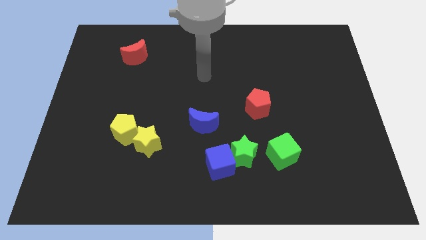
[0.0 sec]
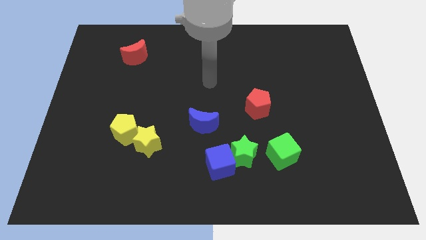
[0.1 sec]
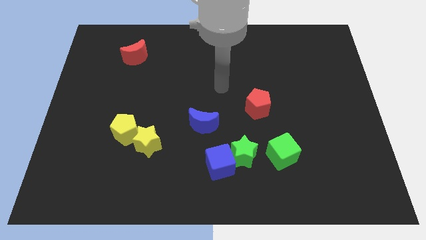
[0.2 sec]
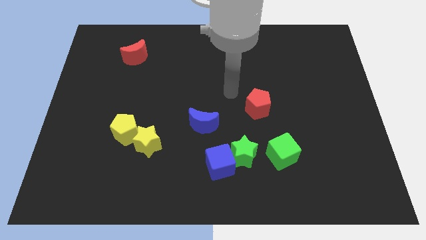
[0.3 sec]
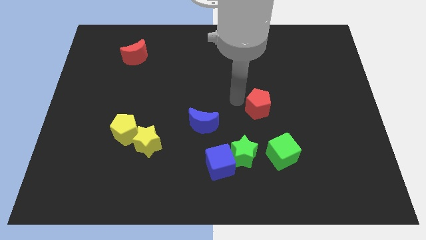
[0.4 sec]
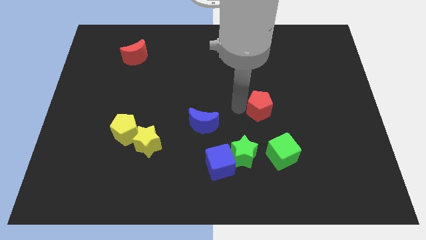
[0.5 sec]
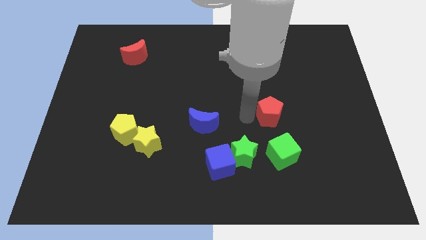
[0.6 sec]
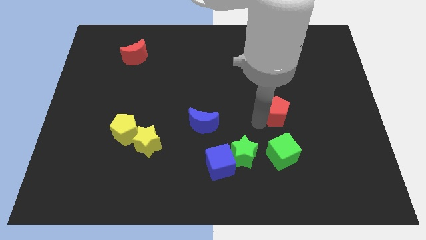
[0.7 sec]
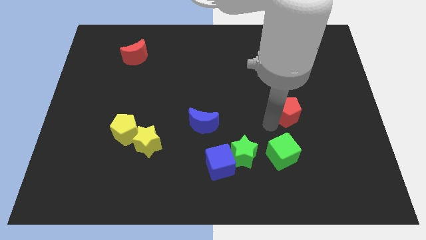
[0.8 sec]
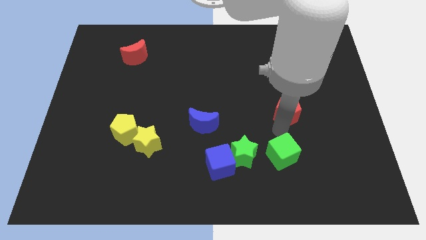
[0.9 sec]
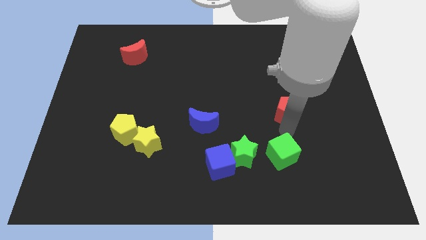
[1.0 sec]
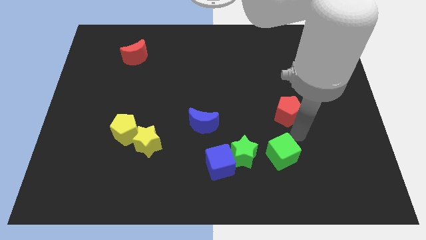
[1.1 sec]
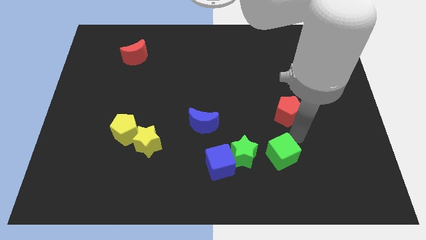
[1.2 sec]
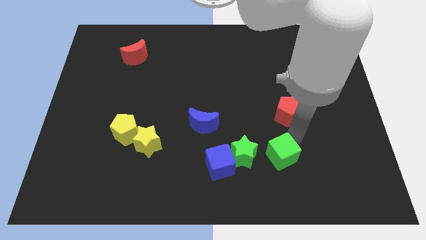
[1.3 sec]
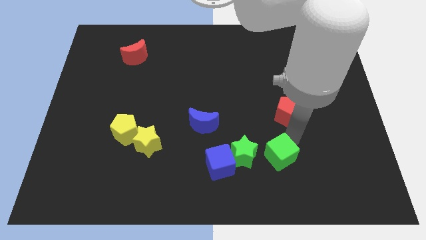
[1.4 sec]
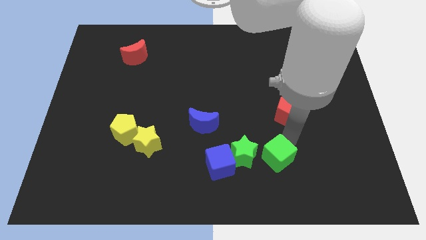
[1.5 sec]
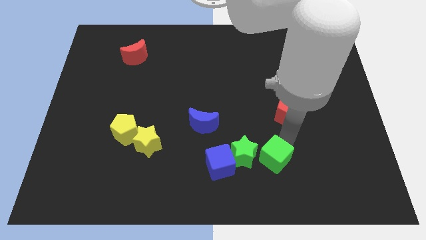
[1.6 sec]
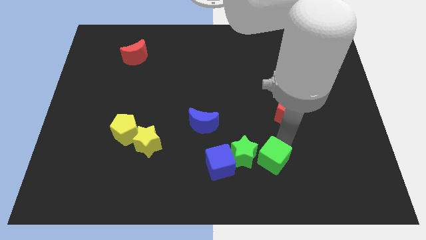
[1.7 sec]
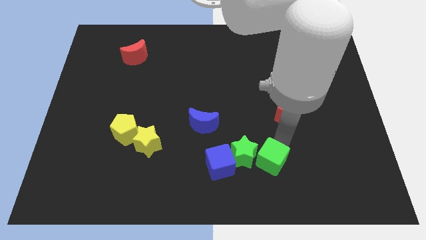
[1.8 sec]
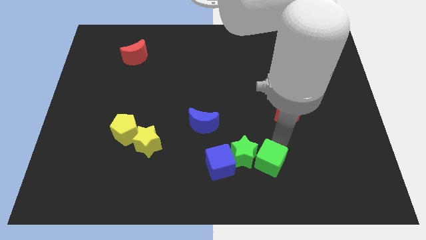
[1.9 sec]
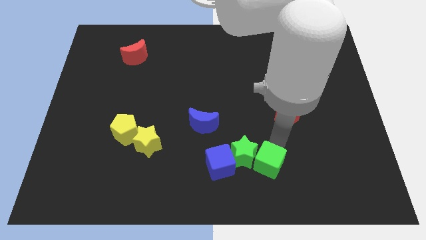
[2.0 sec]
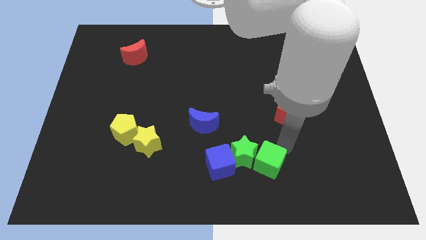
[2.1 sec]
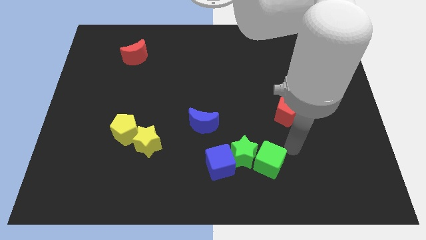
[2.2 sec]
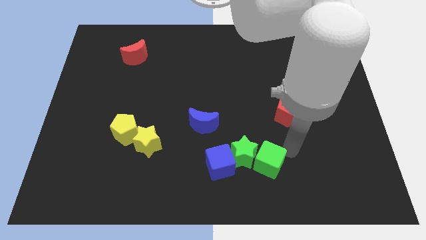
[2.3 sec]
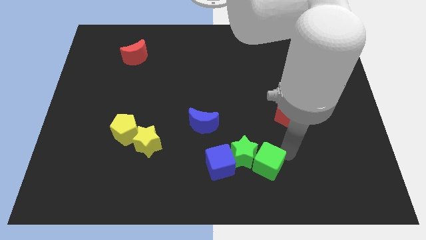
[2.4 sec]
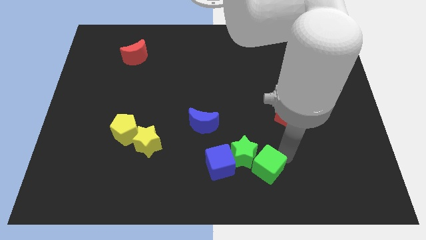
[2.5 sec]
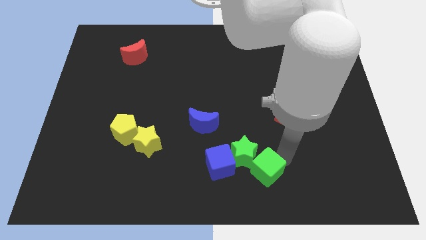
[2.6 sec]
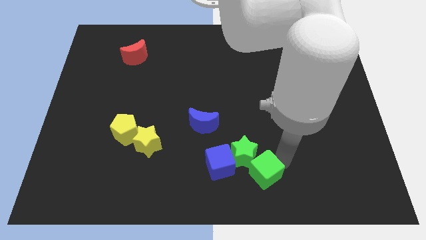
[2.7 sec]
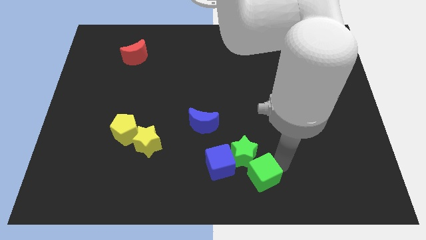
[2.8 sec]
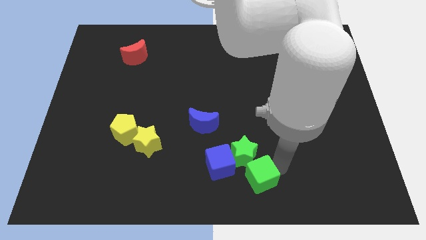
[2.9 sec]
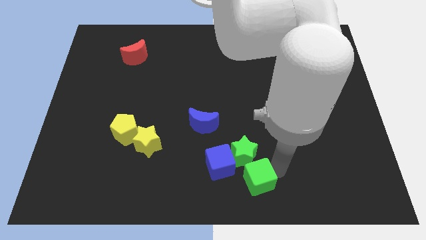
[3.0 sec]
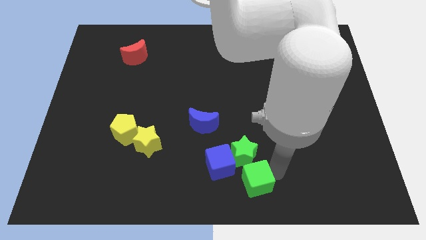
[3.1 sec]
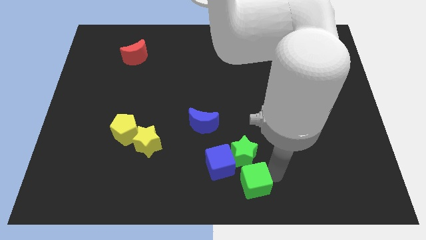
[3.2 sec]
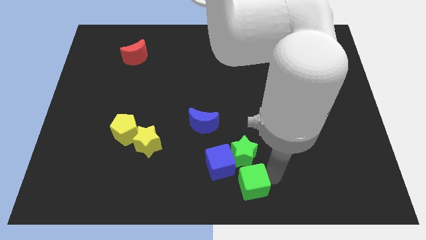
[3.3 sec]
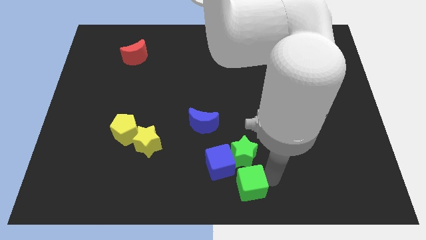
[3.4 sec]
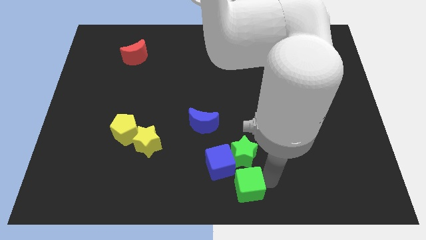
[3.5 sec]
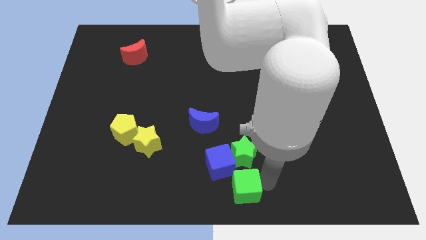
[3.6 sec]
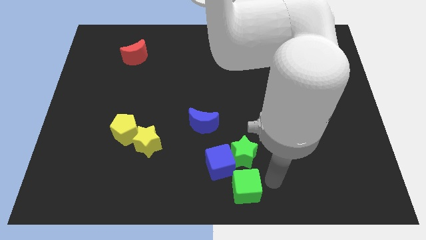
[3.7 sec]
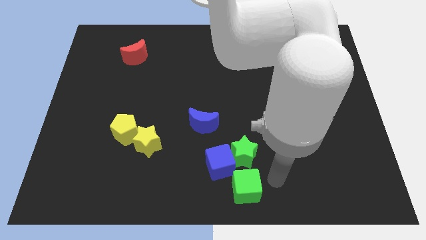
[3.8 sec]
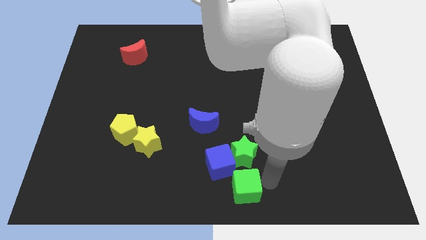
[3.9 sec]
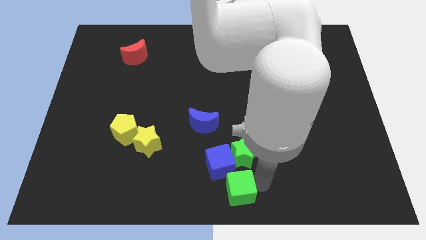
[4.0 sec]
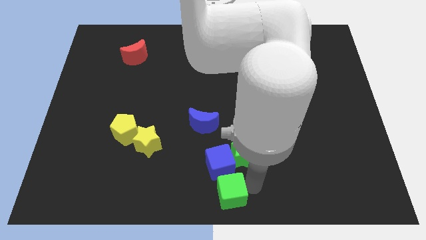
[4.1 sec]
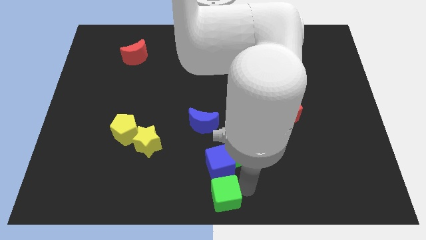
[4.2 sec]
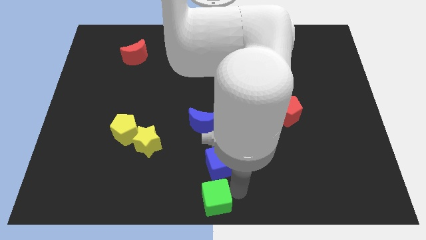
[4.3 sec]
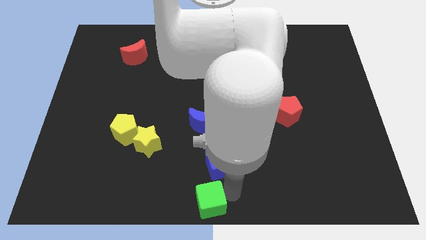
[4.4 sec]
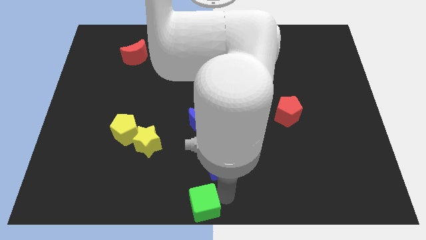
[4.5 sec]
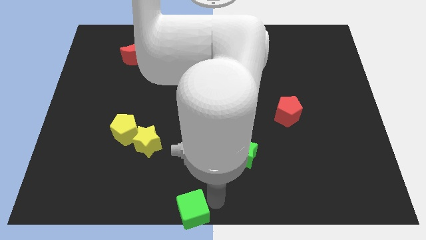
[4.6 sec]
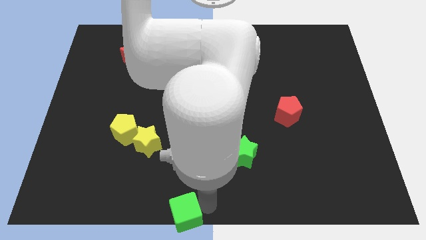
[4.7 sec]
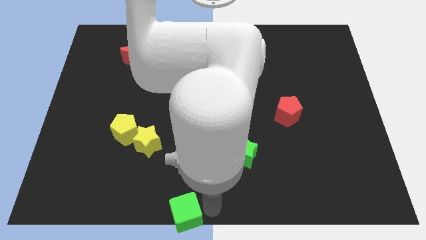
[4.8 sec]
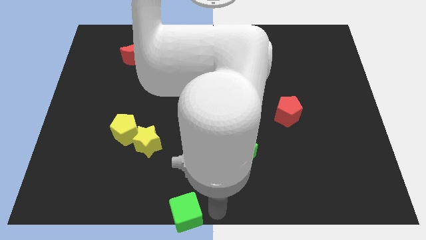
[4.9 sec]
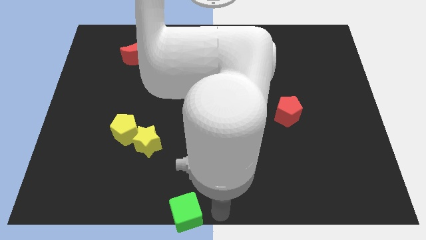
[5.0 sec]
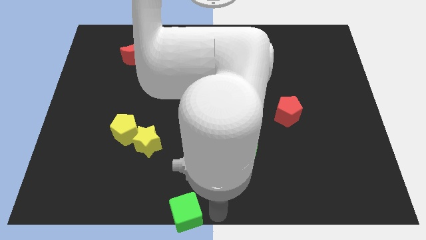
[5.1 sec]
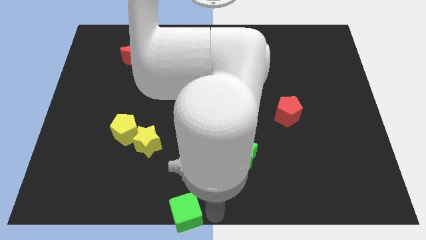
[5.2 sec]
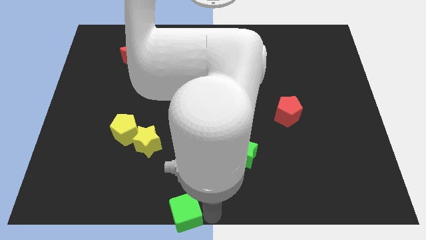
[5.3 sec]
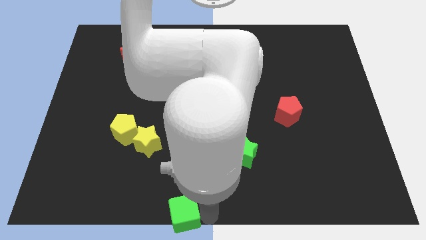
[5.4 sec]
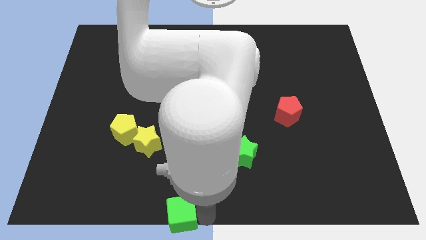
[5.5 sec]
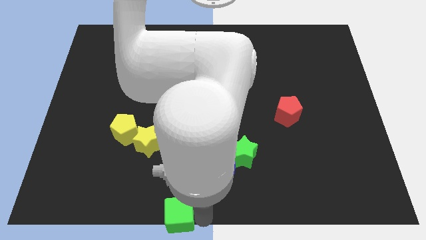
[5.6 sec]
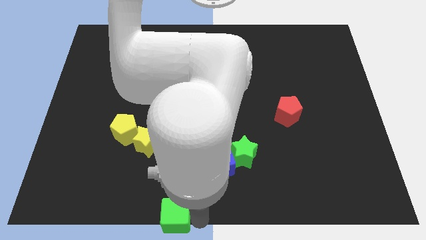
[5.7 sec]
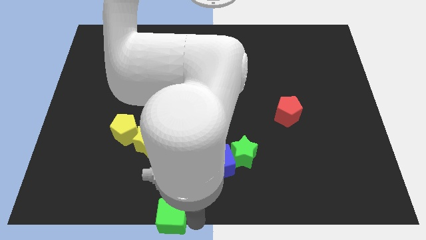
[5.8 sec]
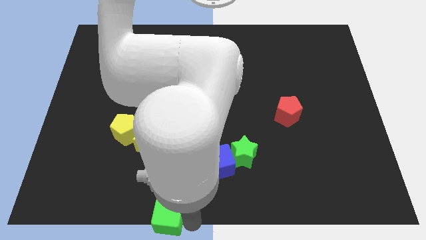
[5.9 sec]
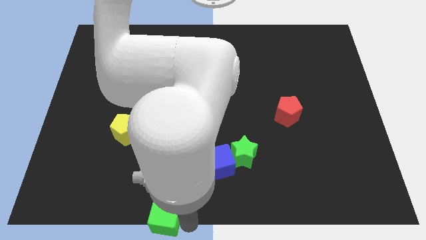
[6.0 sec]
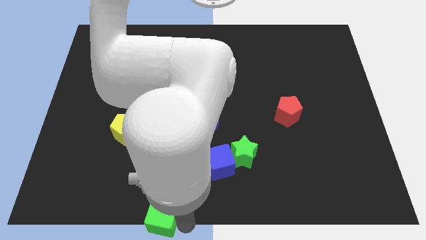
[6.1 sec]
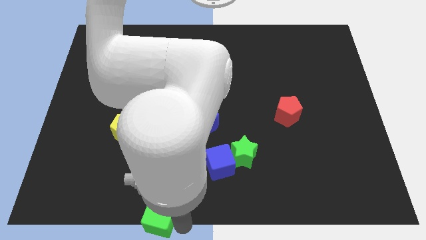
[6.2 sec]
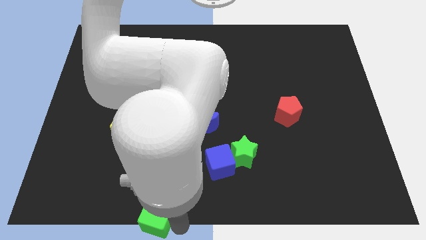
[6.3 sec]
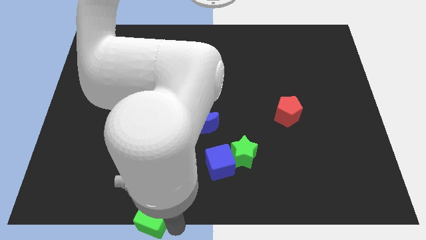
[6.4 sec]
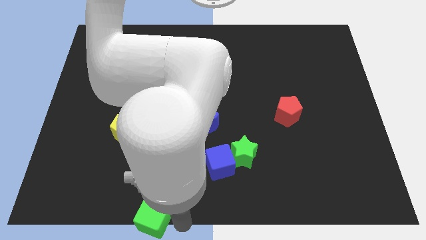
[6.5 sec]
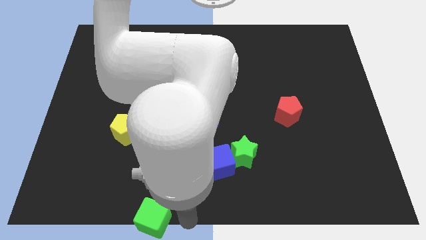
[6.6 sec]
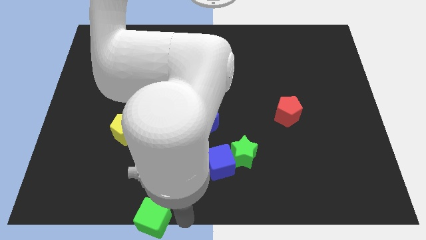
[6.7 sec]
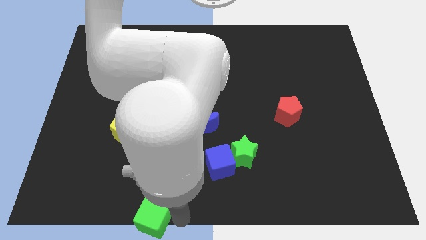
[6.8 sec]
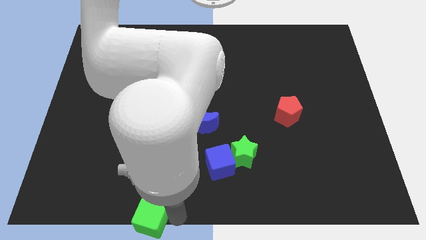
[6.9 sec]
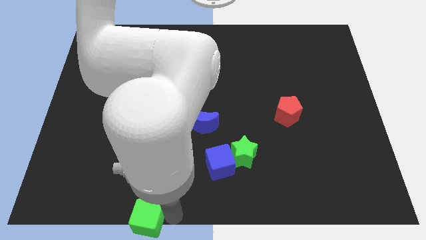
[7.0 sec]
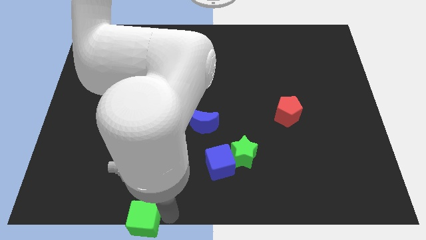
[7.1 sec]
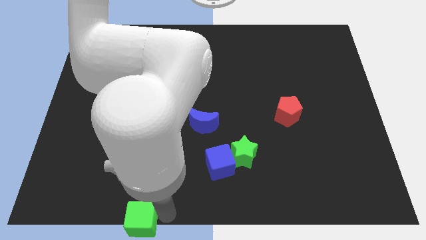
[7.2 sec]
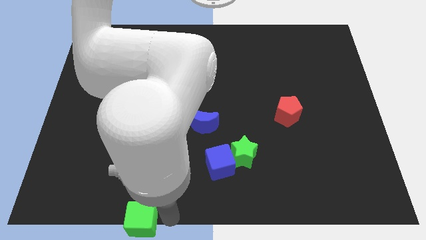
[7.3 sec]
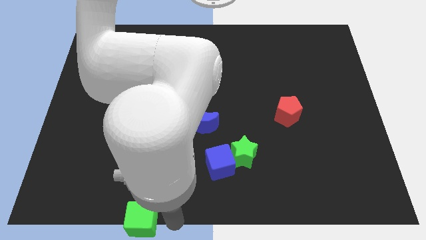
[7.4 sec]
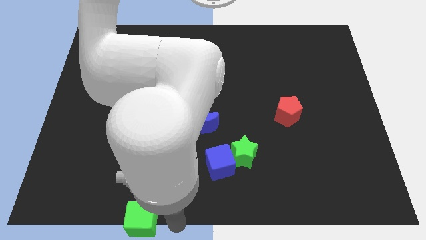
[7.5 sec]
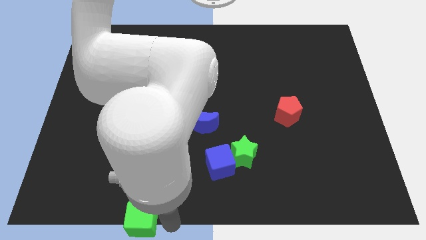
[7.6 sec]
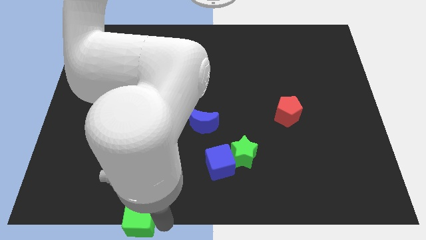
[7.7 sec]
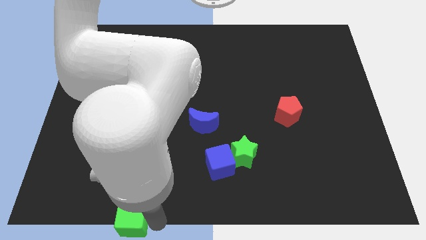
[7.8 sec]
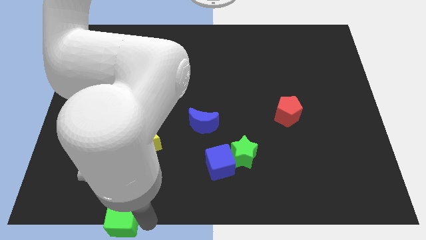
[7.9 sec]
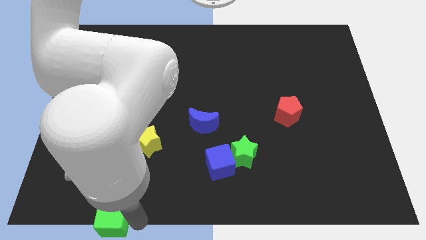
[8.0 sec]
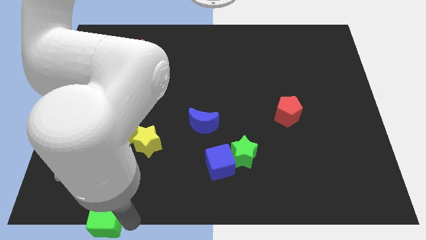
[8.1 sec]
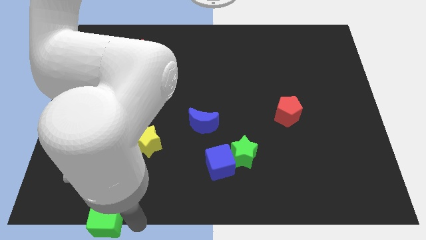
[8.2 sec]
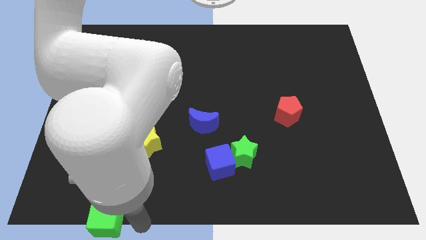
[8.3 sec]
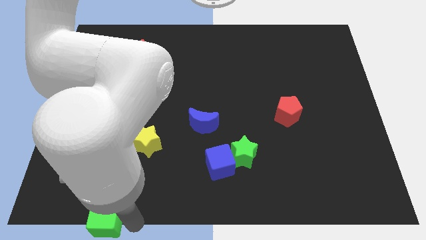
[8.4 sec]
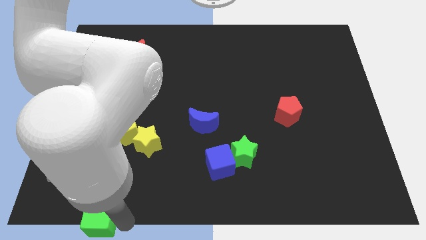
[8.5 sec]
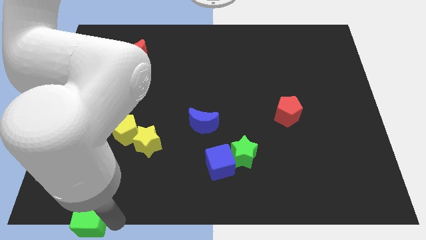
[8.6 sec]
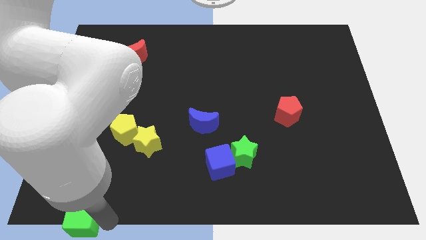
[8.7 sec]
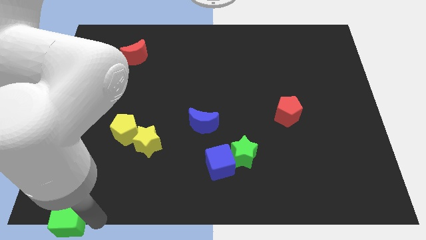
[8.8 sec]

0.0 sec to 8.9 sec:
put the green cube to the bottom left
